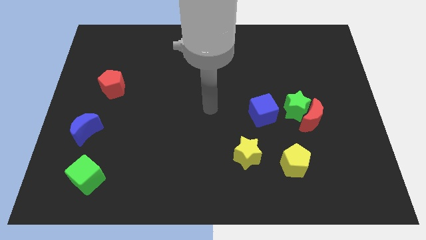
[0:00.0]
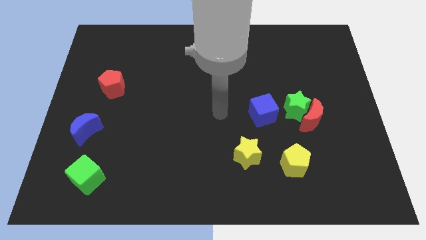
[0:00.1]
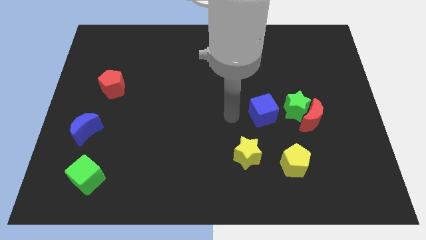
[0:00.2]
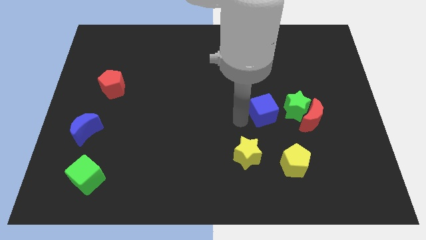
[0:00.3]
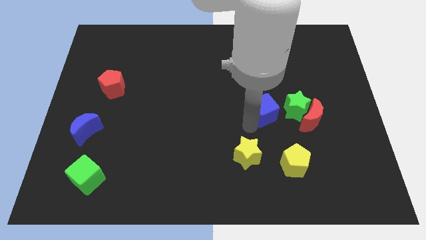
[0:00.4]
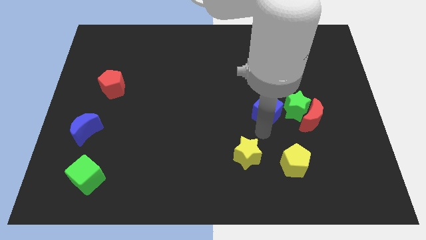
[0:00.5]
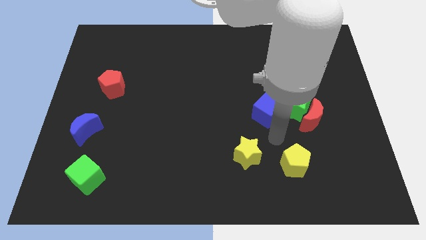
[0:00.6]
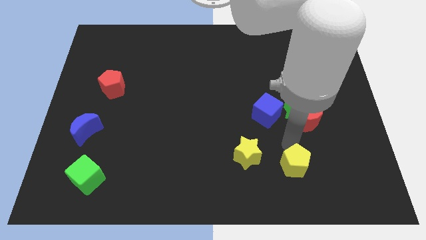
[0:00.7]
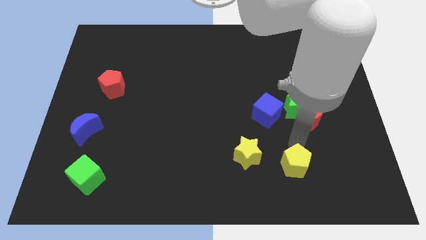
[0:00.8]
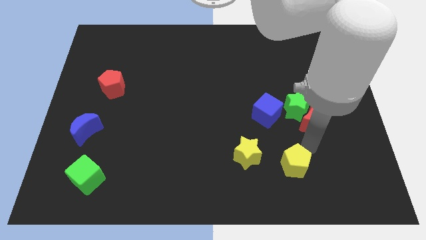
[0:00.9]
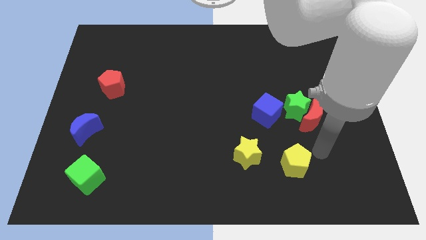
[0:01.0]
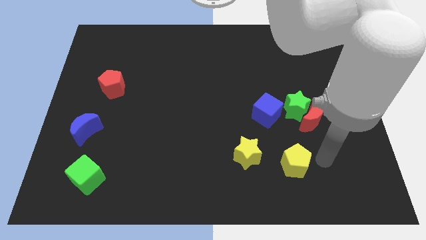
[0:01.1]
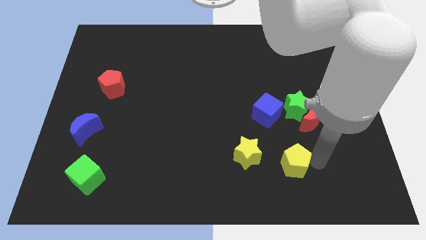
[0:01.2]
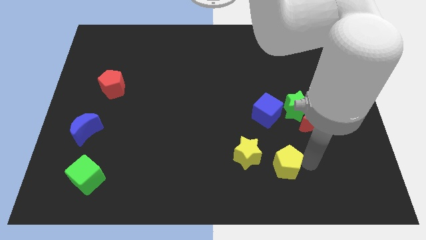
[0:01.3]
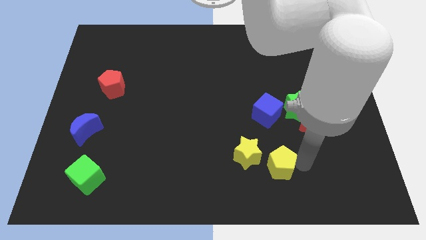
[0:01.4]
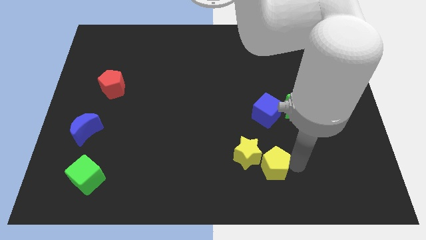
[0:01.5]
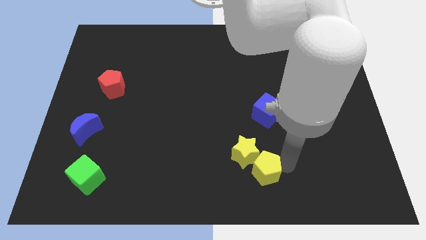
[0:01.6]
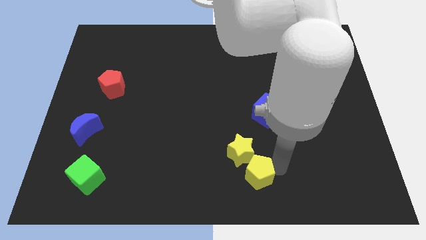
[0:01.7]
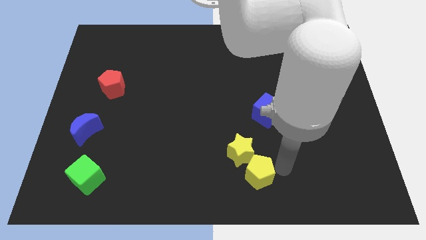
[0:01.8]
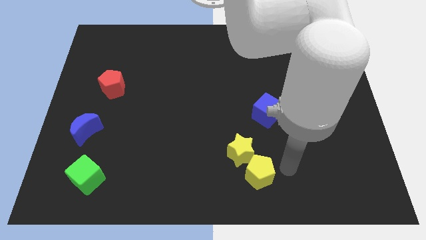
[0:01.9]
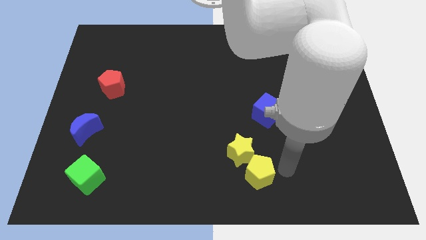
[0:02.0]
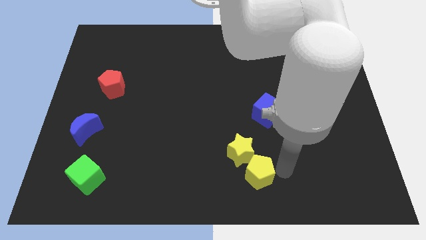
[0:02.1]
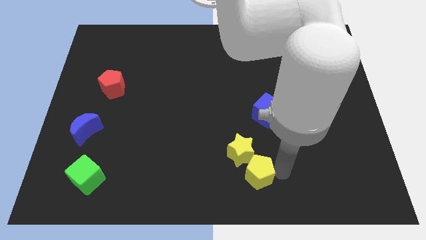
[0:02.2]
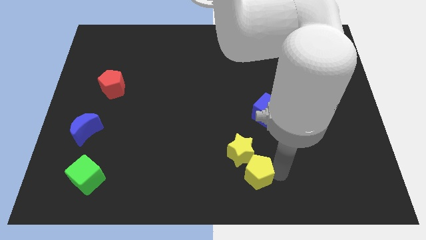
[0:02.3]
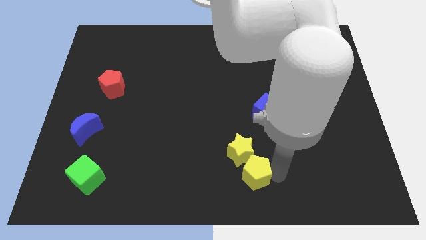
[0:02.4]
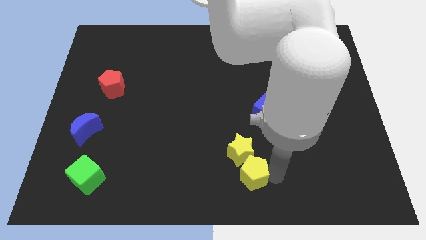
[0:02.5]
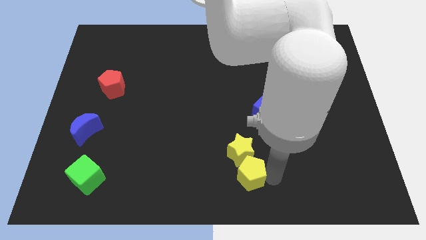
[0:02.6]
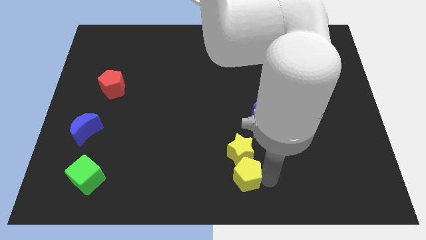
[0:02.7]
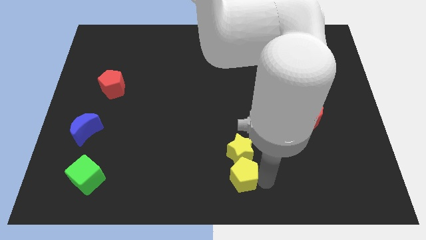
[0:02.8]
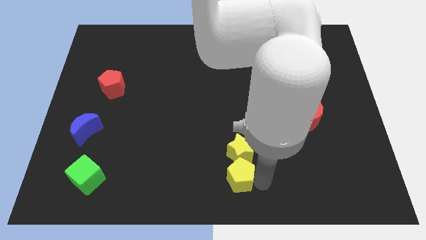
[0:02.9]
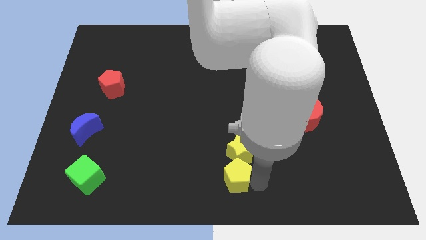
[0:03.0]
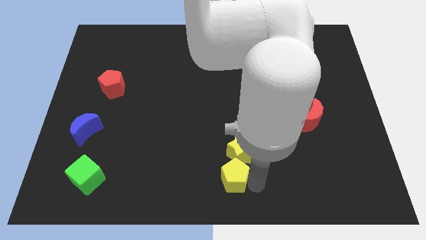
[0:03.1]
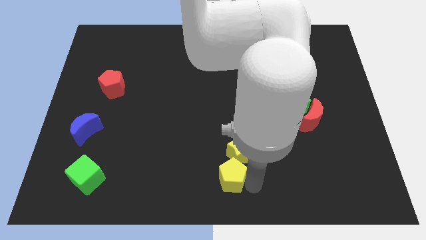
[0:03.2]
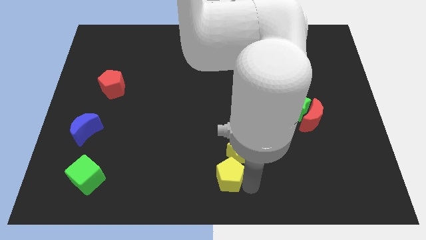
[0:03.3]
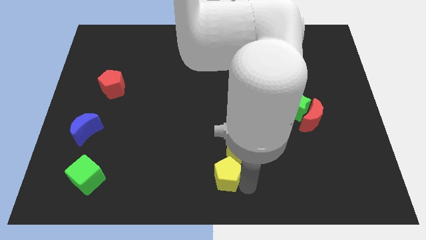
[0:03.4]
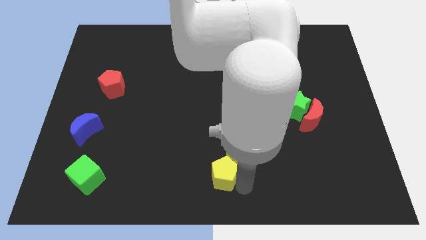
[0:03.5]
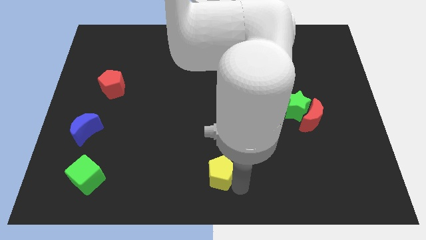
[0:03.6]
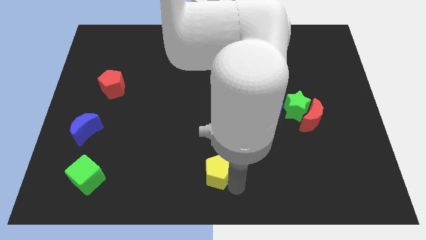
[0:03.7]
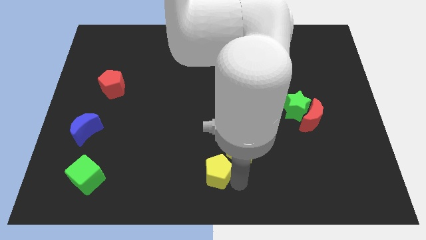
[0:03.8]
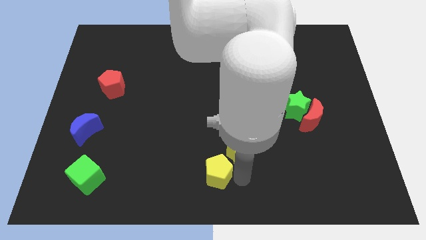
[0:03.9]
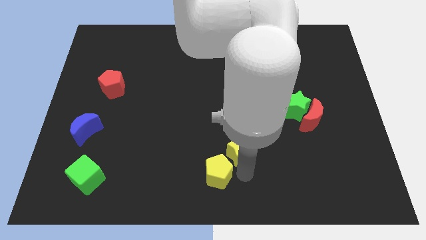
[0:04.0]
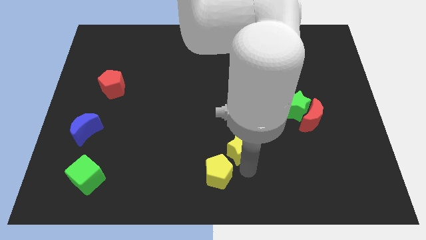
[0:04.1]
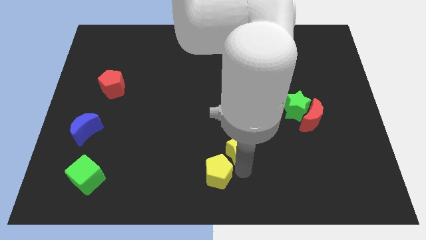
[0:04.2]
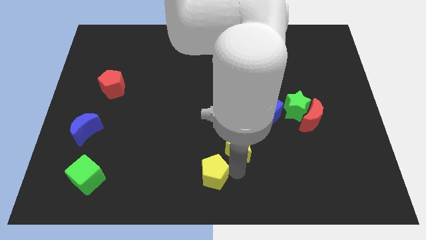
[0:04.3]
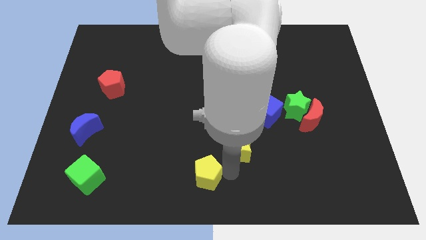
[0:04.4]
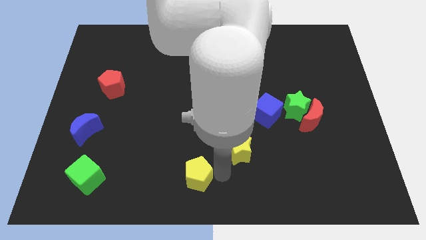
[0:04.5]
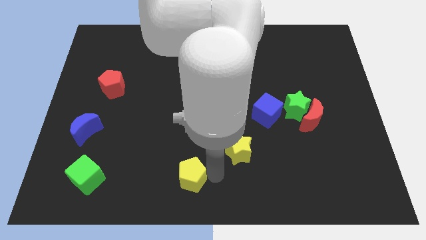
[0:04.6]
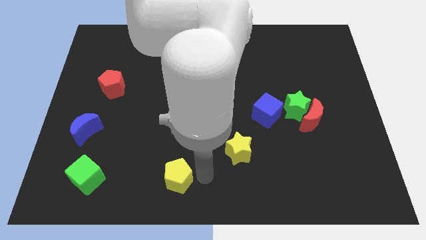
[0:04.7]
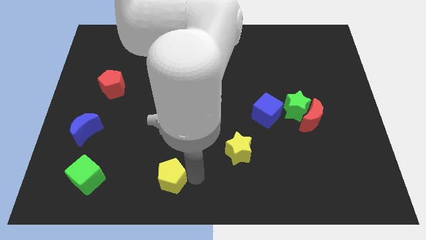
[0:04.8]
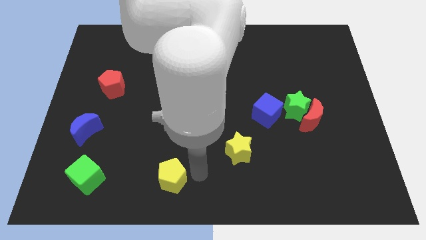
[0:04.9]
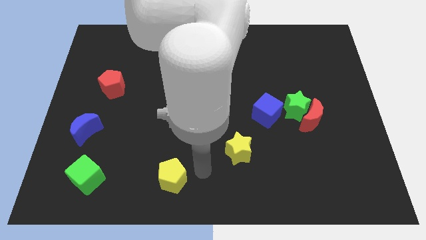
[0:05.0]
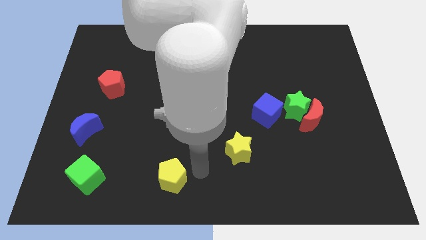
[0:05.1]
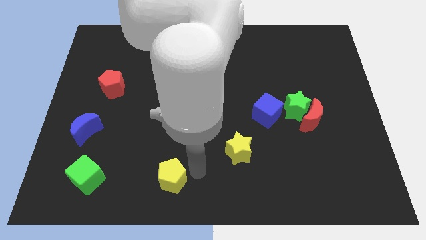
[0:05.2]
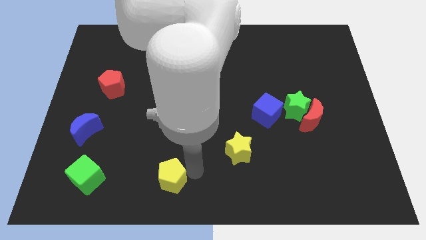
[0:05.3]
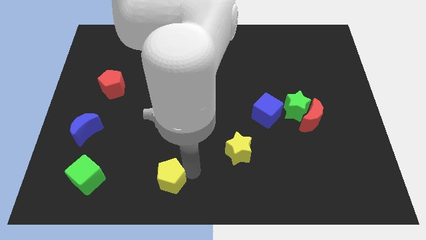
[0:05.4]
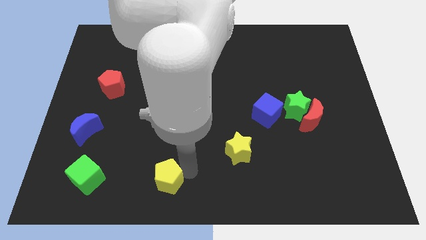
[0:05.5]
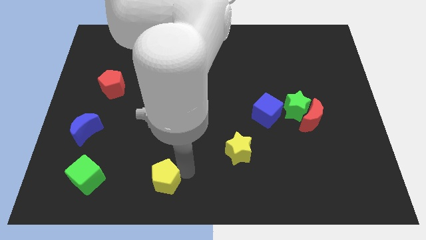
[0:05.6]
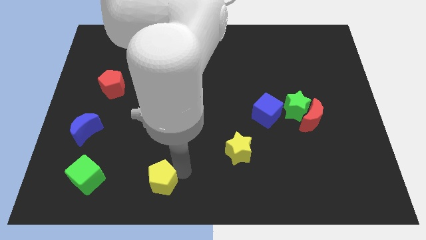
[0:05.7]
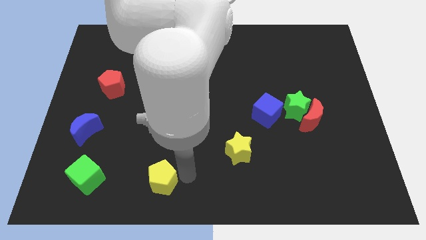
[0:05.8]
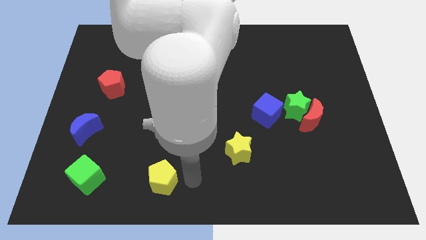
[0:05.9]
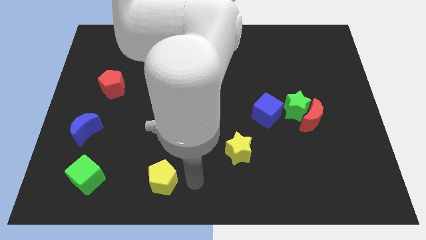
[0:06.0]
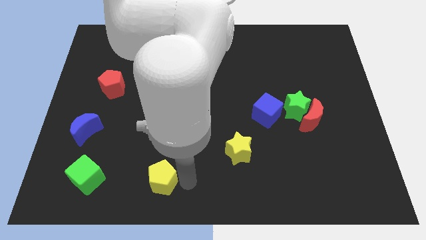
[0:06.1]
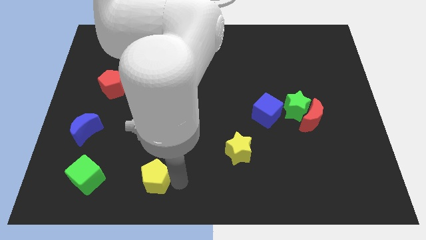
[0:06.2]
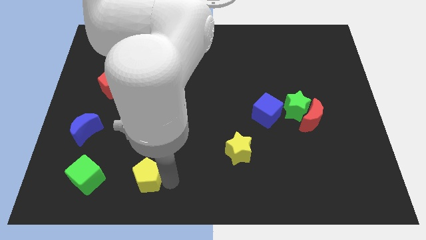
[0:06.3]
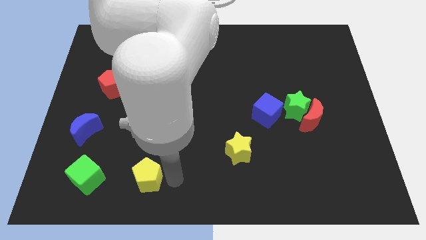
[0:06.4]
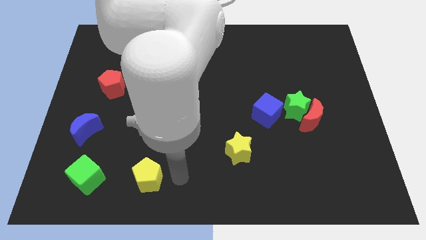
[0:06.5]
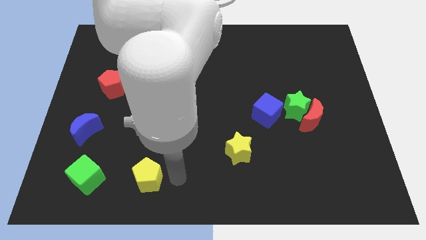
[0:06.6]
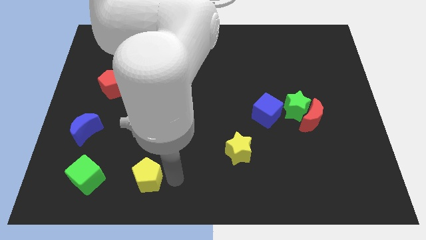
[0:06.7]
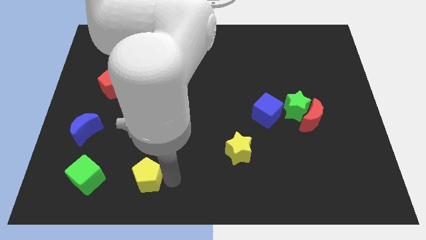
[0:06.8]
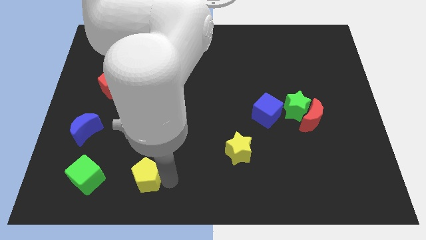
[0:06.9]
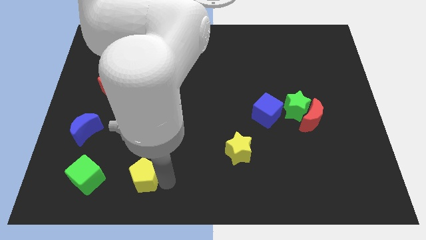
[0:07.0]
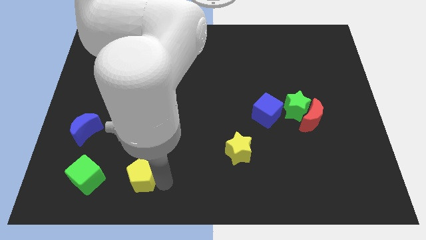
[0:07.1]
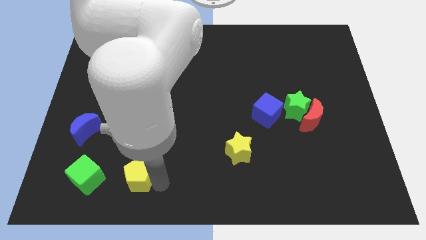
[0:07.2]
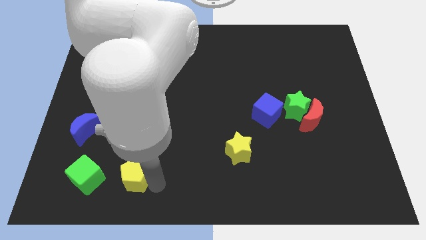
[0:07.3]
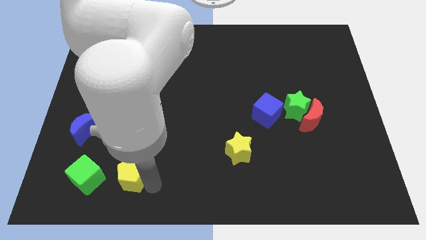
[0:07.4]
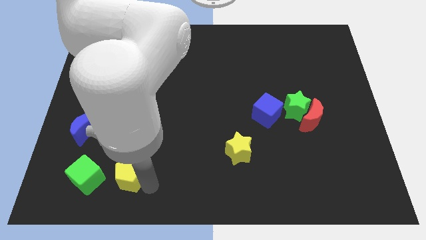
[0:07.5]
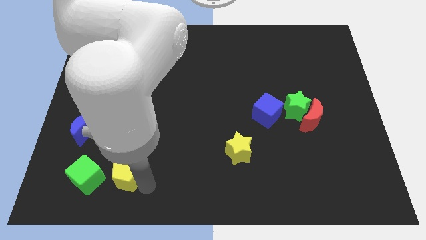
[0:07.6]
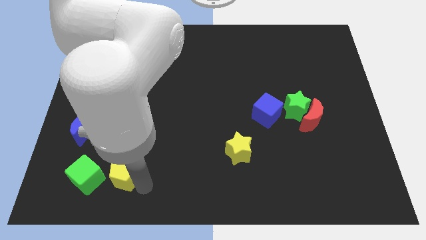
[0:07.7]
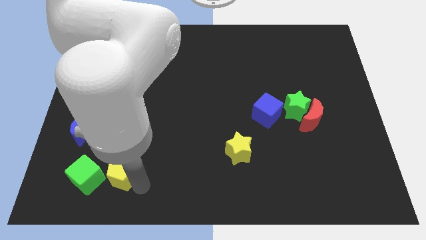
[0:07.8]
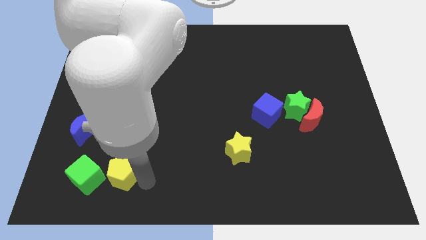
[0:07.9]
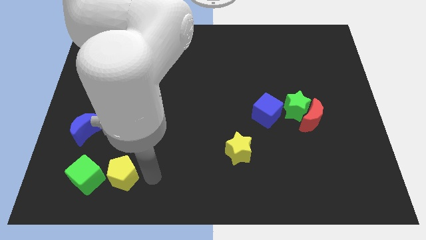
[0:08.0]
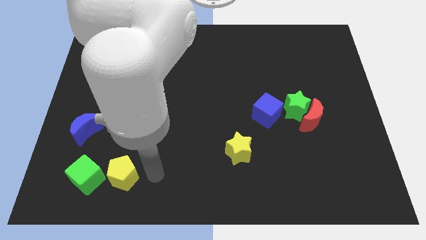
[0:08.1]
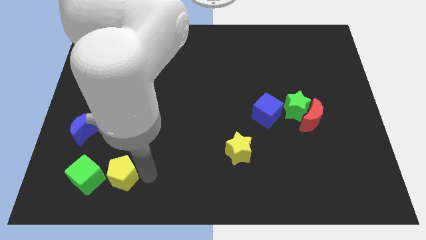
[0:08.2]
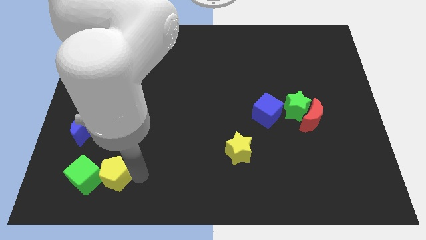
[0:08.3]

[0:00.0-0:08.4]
move the yellow pentagon next to the green cube
